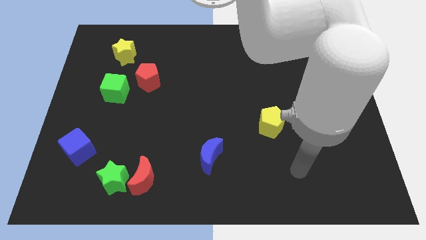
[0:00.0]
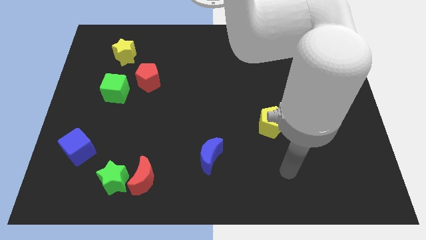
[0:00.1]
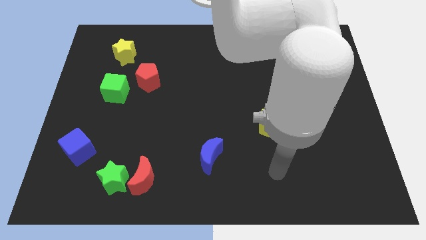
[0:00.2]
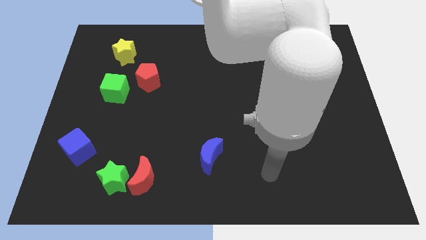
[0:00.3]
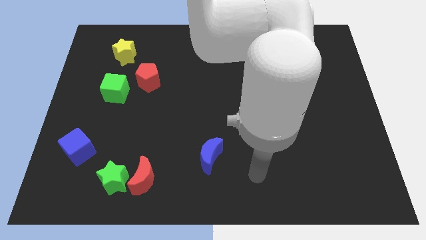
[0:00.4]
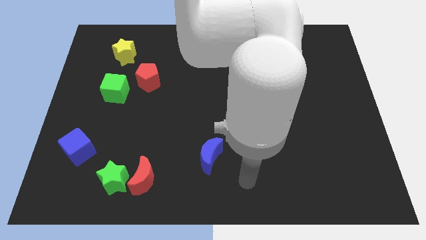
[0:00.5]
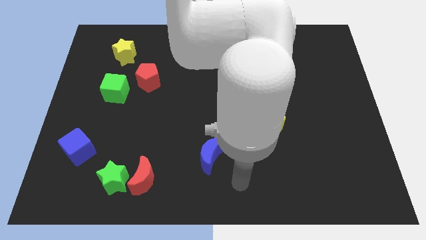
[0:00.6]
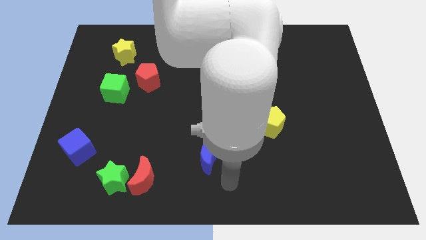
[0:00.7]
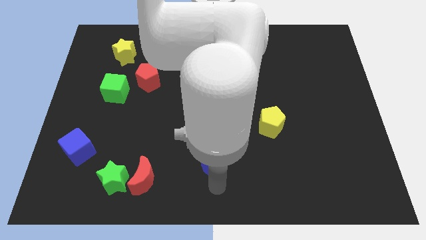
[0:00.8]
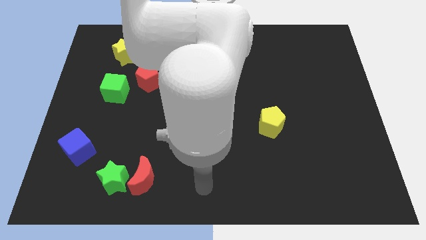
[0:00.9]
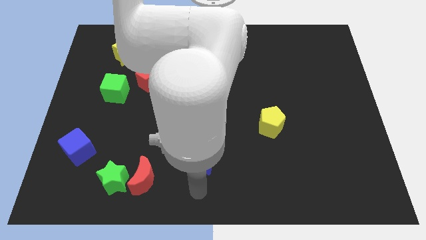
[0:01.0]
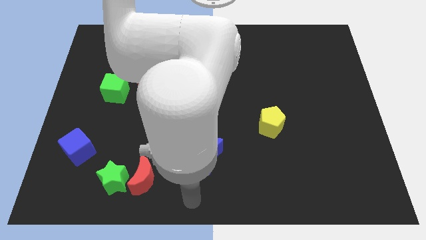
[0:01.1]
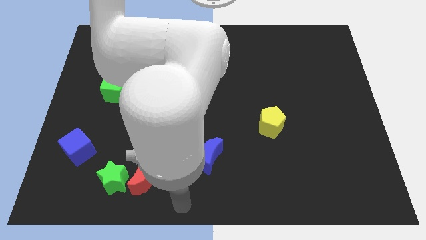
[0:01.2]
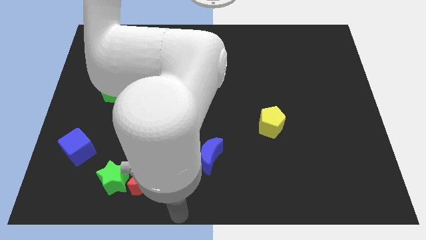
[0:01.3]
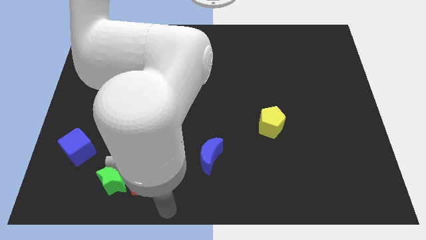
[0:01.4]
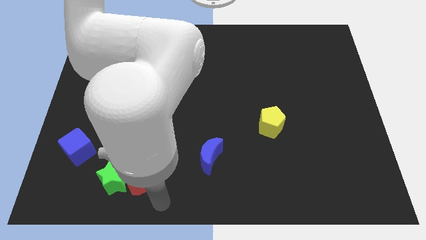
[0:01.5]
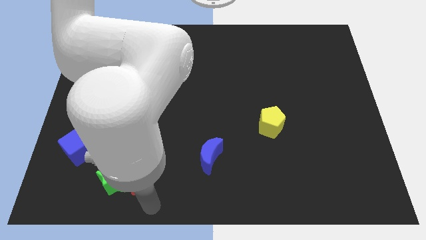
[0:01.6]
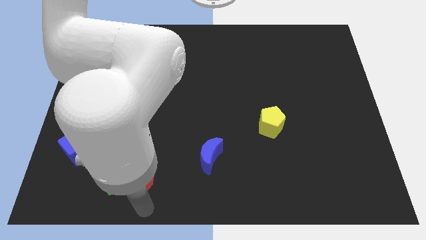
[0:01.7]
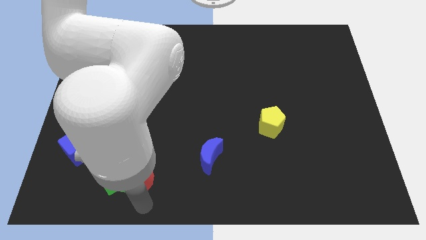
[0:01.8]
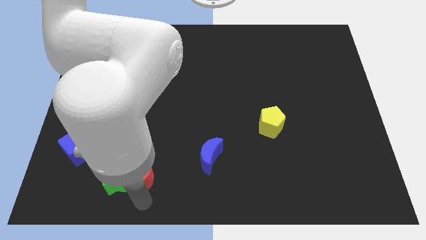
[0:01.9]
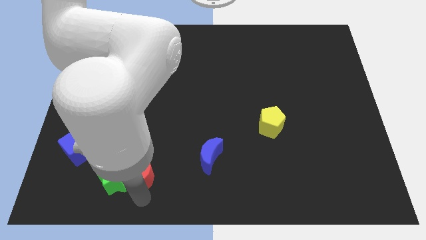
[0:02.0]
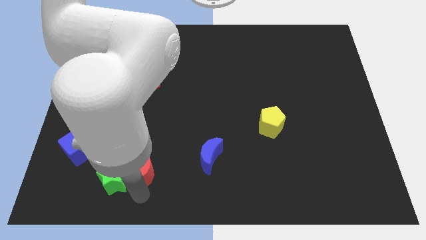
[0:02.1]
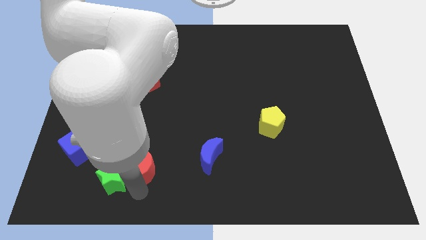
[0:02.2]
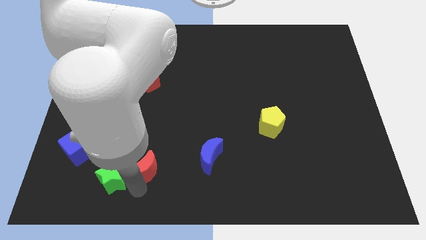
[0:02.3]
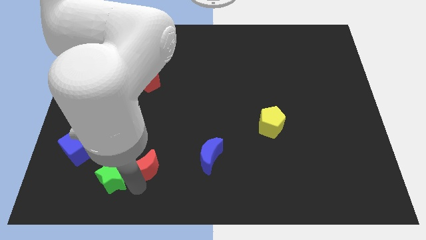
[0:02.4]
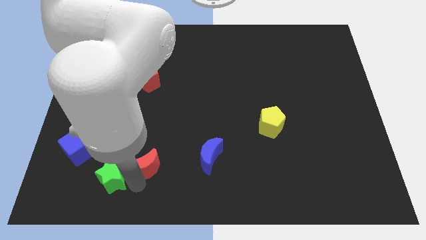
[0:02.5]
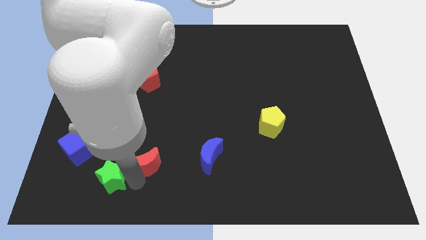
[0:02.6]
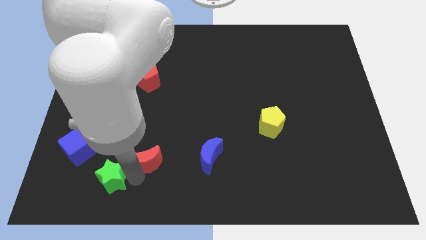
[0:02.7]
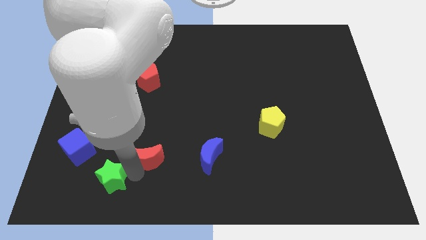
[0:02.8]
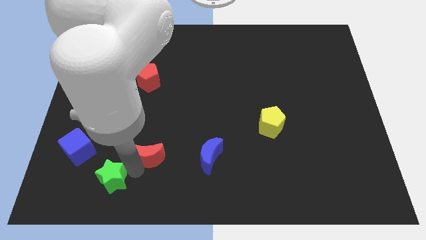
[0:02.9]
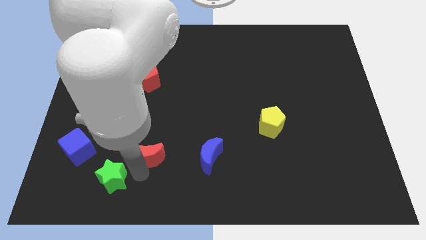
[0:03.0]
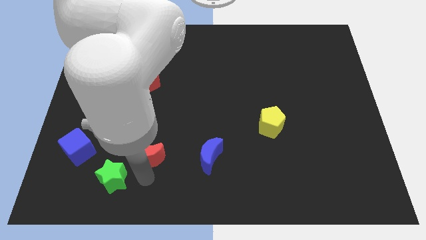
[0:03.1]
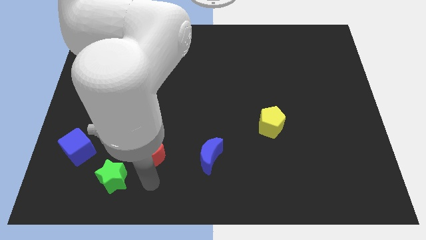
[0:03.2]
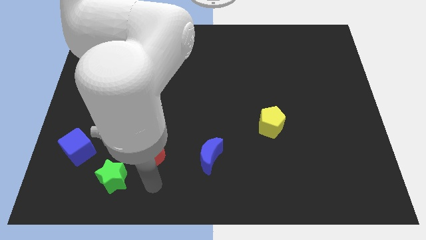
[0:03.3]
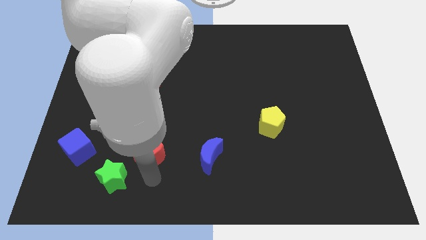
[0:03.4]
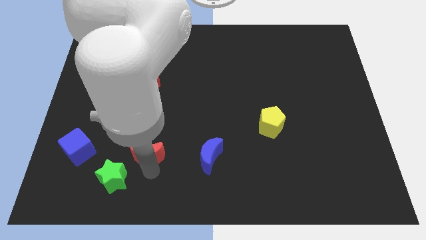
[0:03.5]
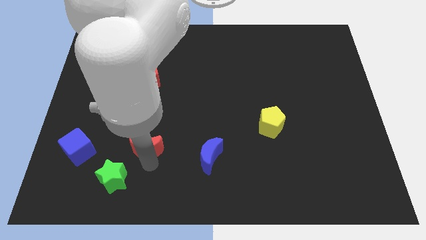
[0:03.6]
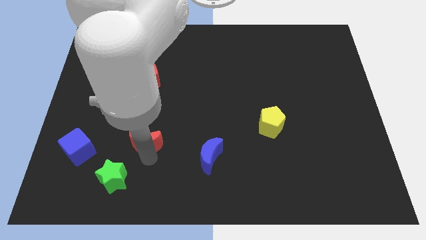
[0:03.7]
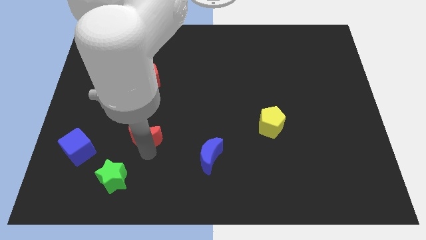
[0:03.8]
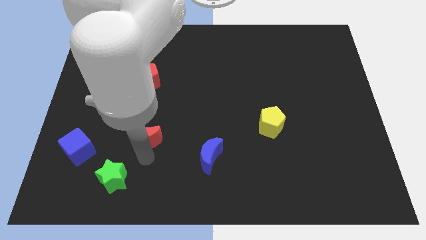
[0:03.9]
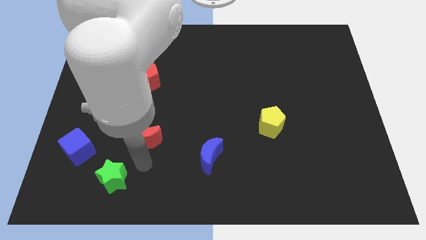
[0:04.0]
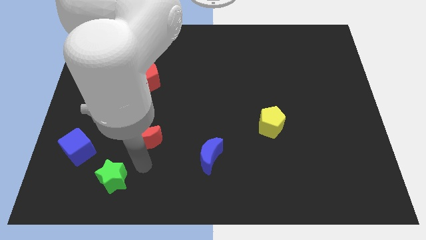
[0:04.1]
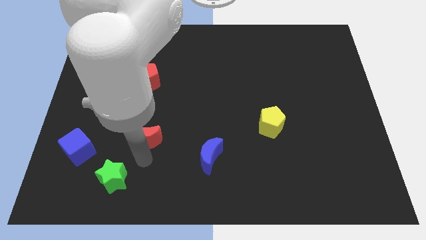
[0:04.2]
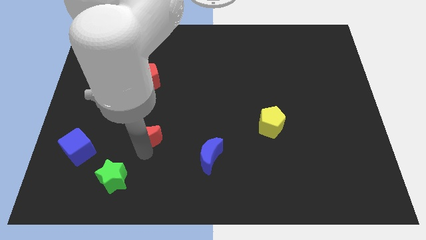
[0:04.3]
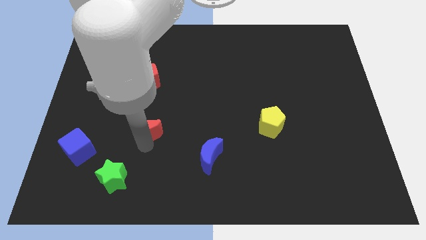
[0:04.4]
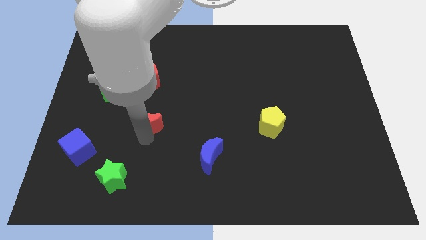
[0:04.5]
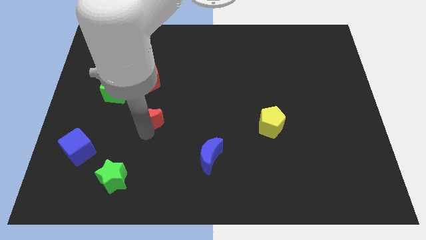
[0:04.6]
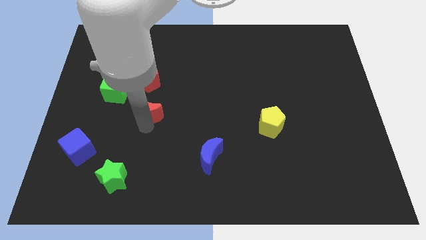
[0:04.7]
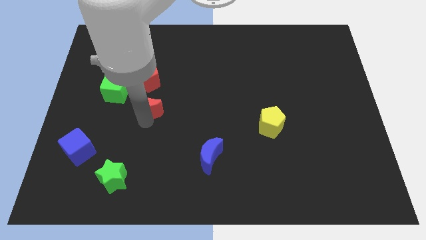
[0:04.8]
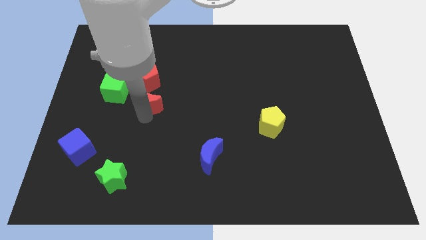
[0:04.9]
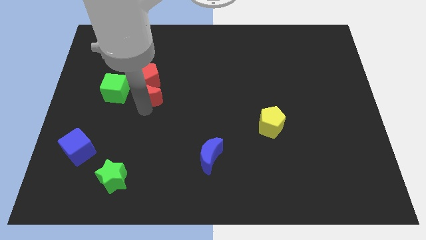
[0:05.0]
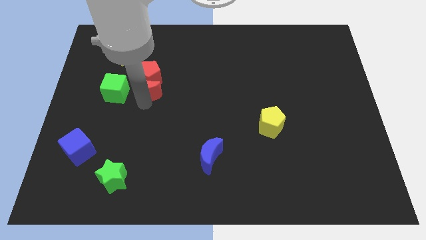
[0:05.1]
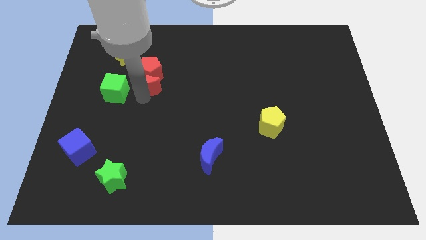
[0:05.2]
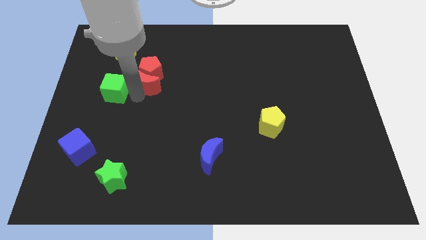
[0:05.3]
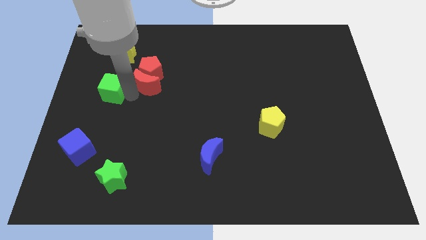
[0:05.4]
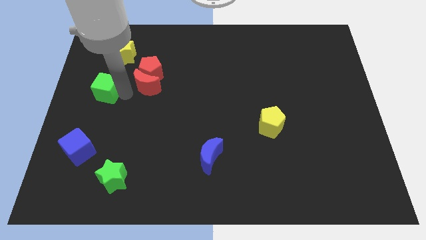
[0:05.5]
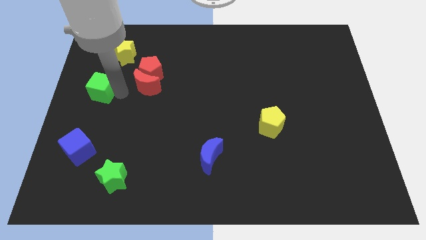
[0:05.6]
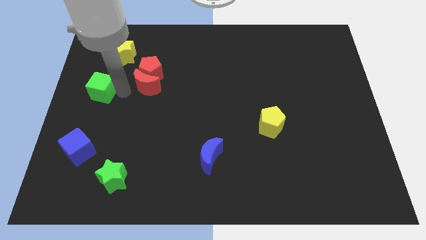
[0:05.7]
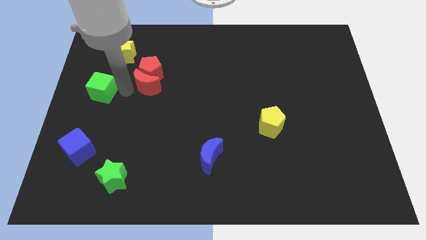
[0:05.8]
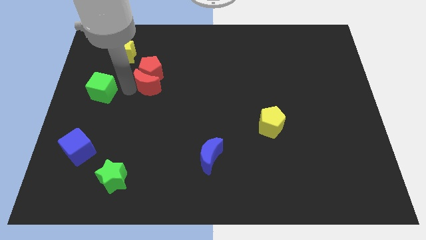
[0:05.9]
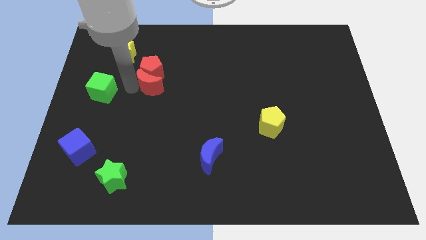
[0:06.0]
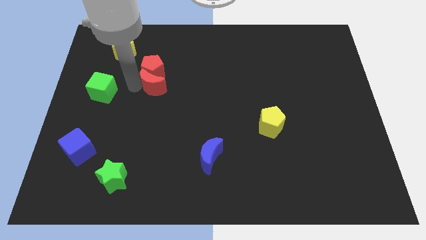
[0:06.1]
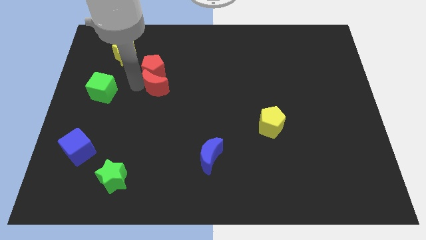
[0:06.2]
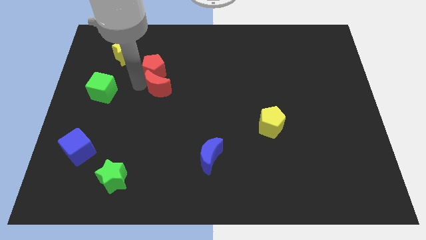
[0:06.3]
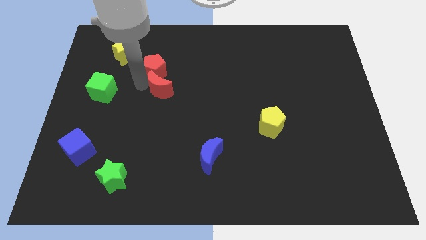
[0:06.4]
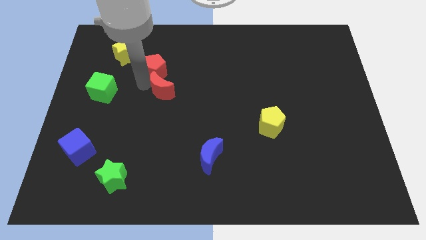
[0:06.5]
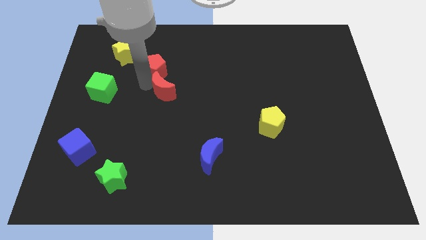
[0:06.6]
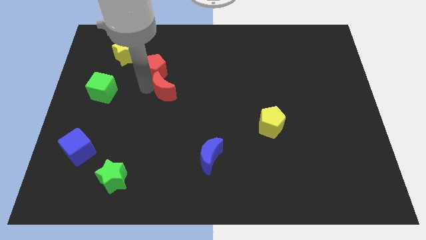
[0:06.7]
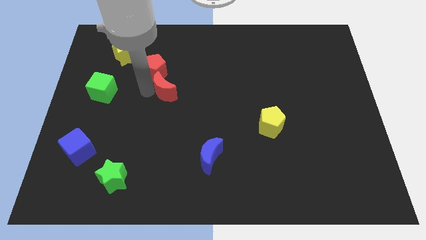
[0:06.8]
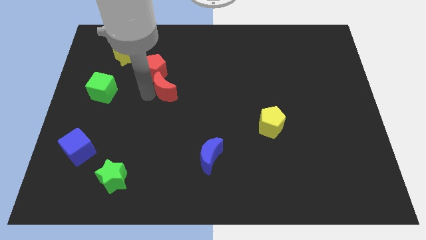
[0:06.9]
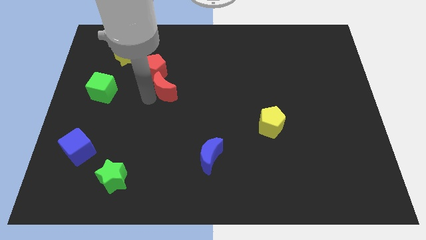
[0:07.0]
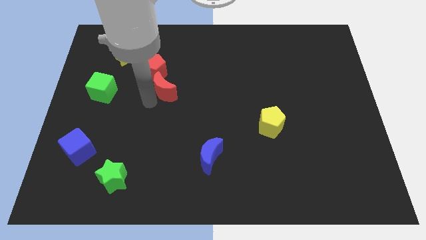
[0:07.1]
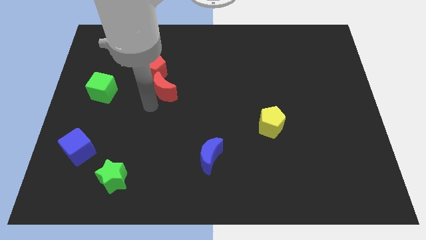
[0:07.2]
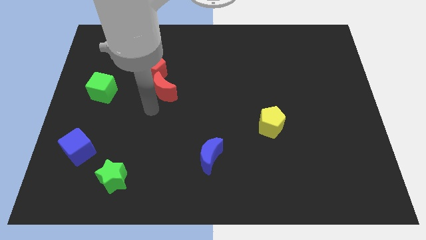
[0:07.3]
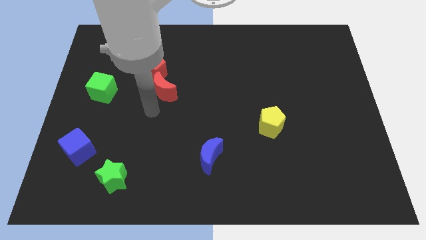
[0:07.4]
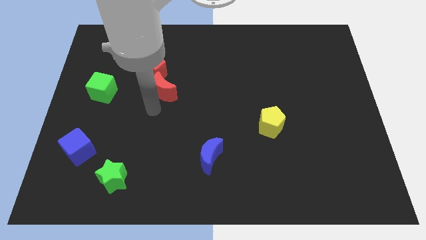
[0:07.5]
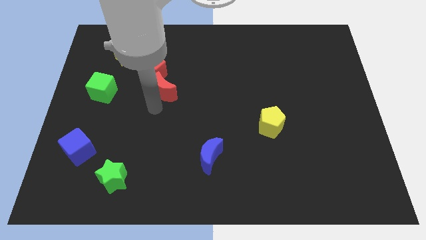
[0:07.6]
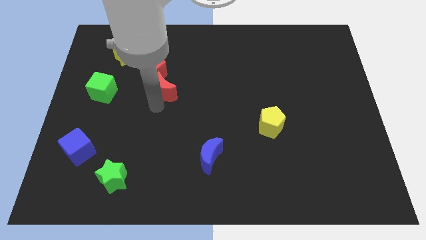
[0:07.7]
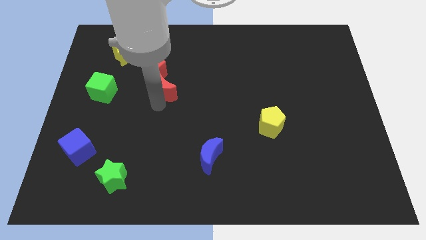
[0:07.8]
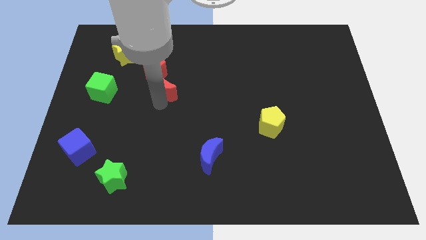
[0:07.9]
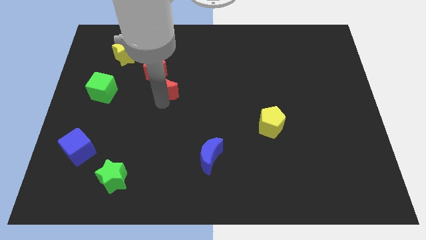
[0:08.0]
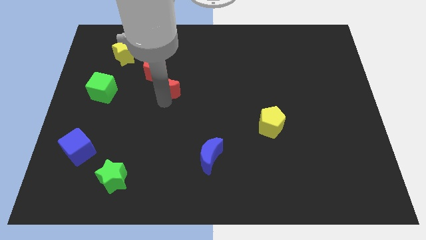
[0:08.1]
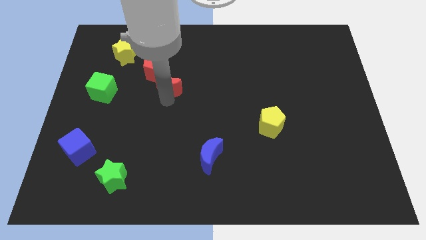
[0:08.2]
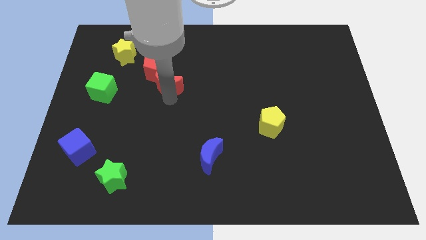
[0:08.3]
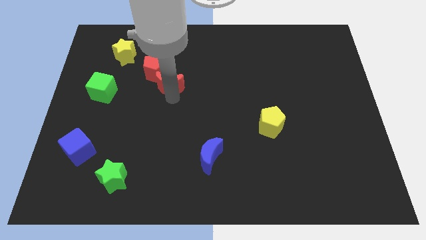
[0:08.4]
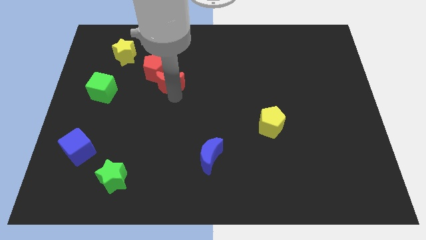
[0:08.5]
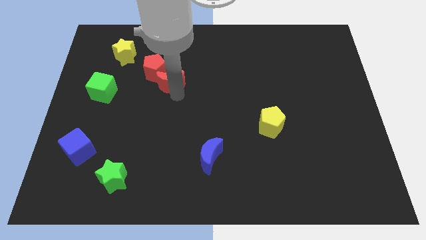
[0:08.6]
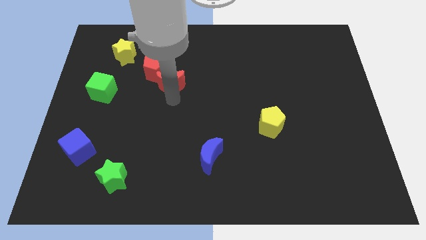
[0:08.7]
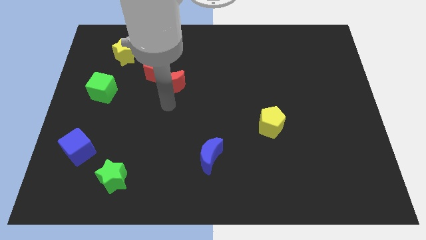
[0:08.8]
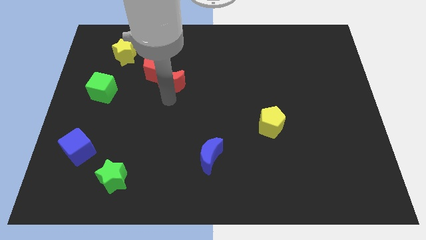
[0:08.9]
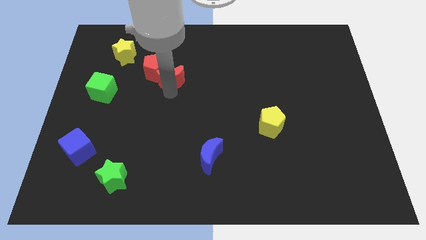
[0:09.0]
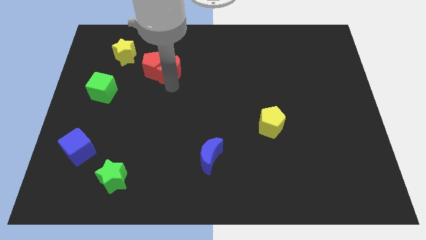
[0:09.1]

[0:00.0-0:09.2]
slide the red moon diagonally up and to the right of the red pentagon
